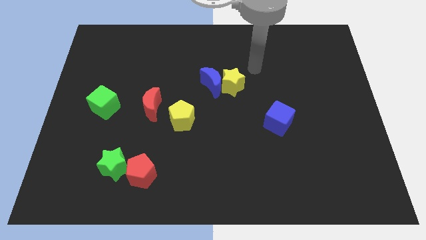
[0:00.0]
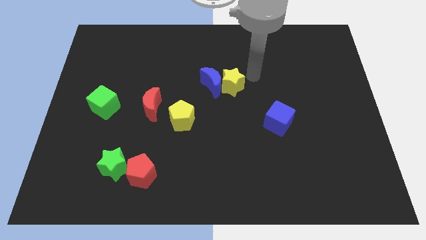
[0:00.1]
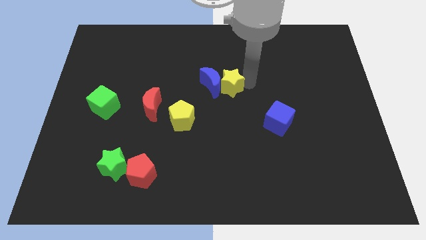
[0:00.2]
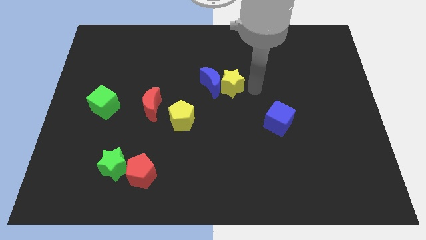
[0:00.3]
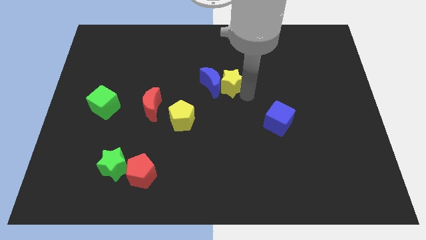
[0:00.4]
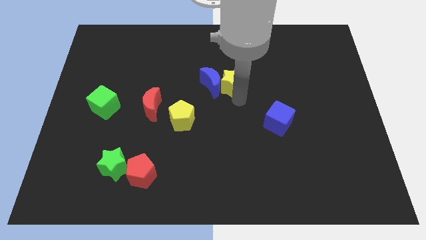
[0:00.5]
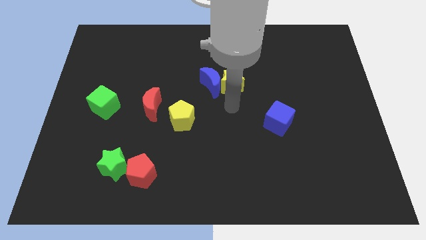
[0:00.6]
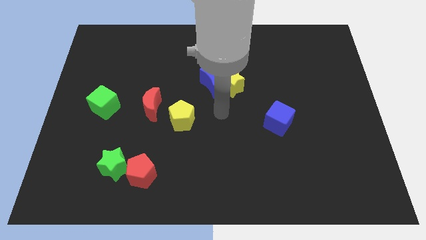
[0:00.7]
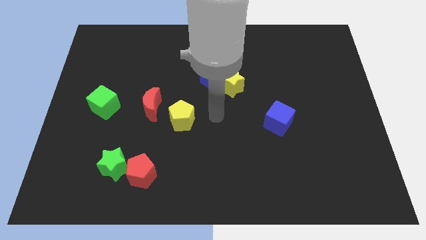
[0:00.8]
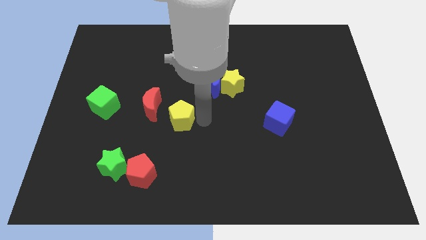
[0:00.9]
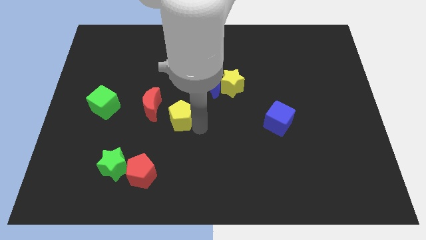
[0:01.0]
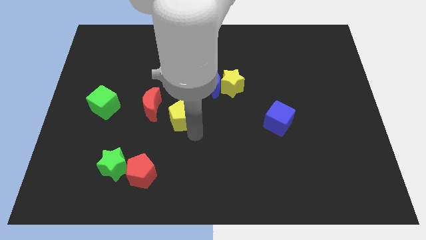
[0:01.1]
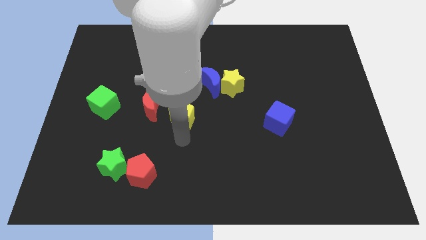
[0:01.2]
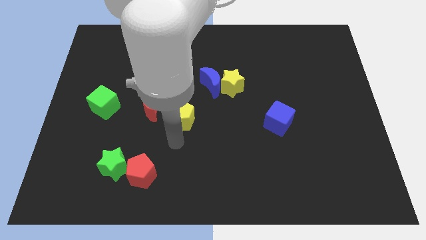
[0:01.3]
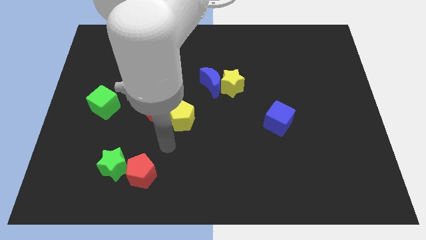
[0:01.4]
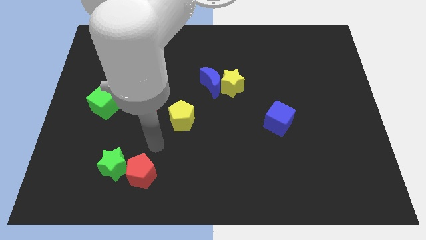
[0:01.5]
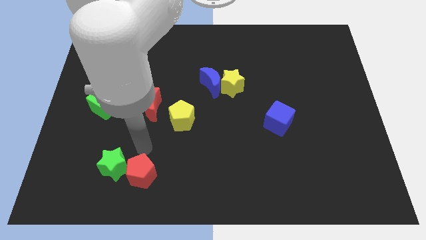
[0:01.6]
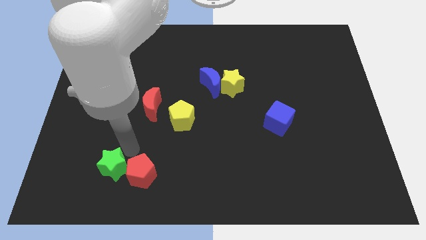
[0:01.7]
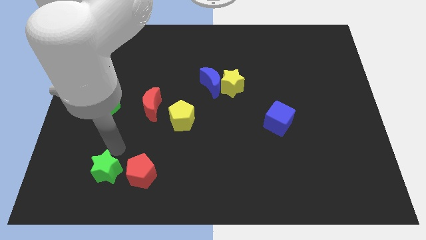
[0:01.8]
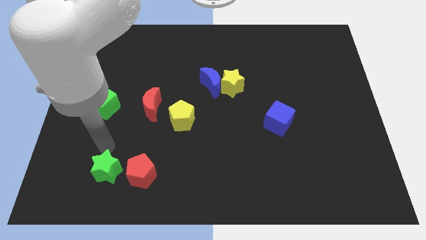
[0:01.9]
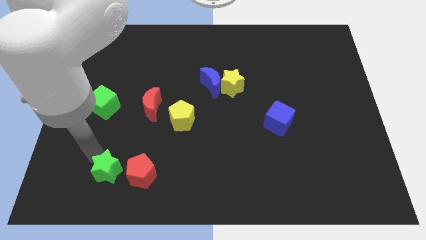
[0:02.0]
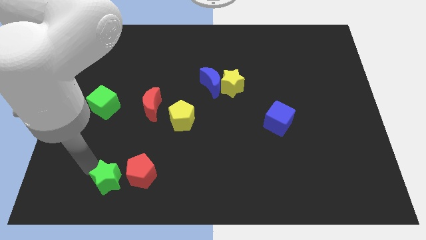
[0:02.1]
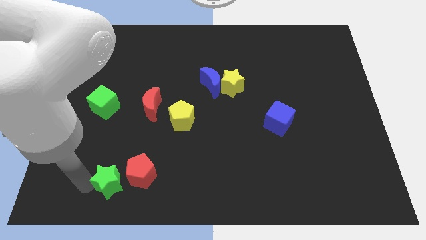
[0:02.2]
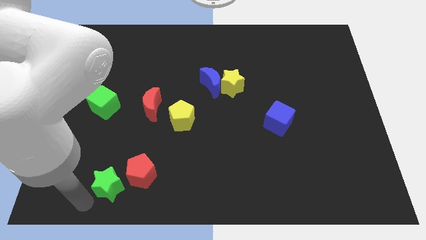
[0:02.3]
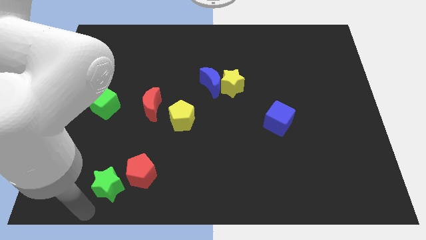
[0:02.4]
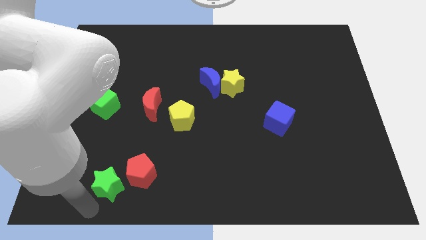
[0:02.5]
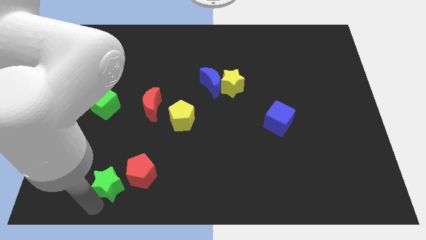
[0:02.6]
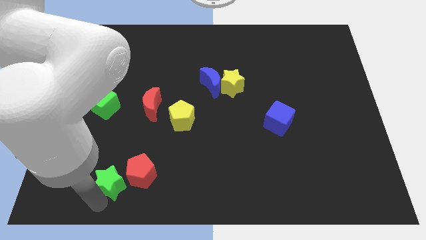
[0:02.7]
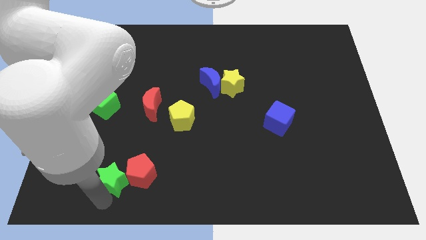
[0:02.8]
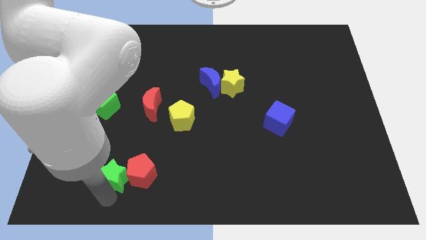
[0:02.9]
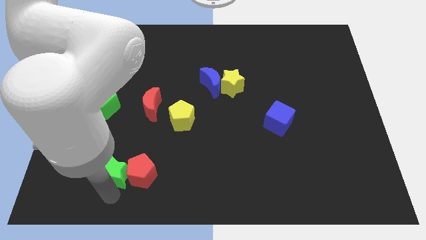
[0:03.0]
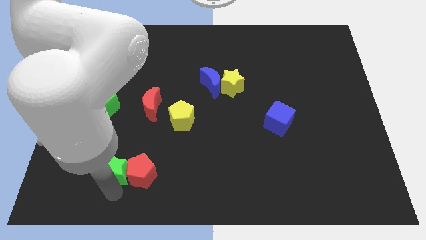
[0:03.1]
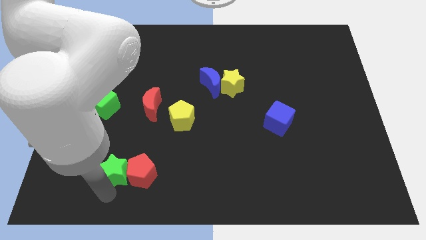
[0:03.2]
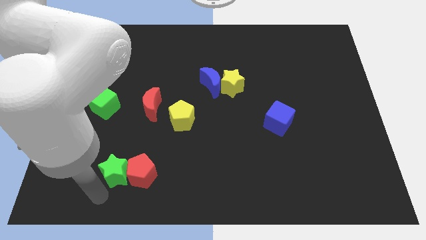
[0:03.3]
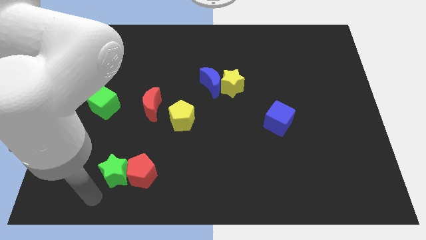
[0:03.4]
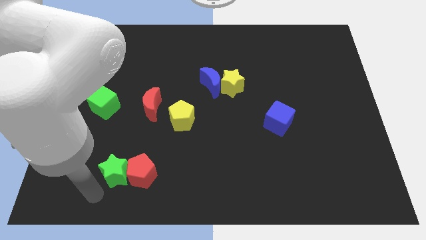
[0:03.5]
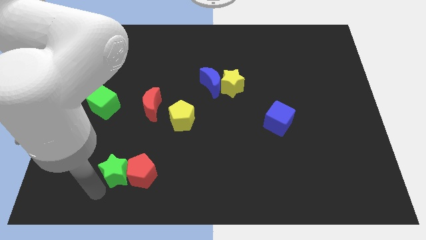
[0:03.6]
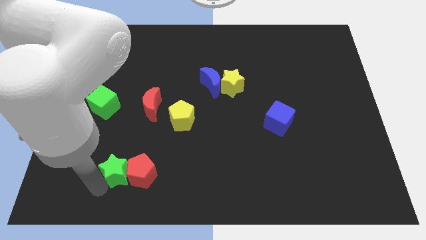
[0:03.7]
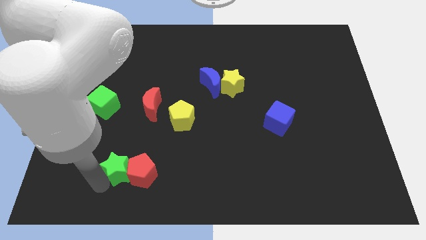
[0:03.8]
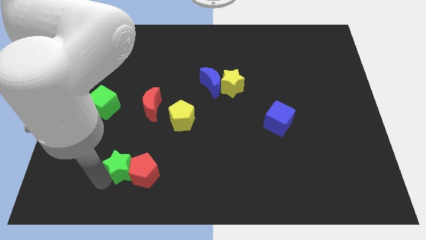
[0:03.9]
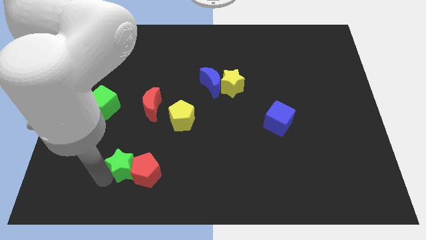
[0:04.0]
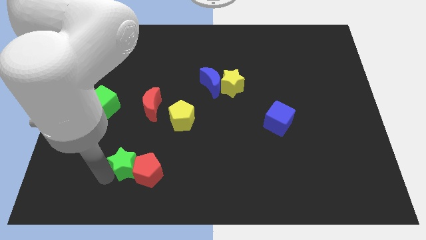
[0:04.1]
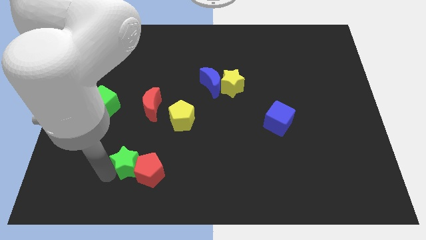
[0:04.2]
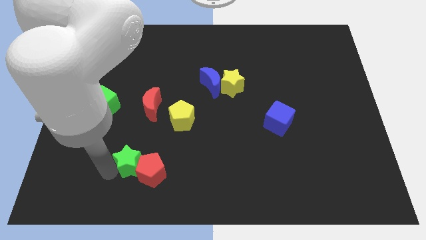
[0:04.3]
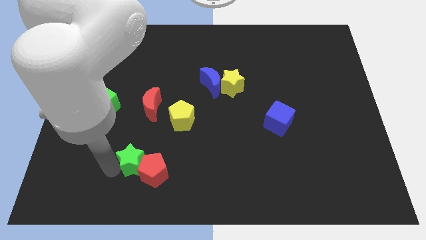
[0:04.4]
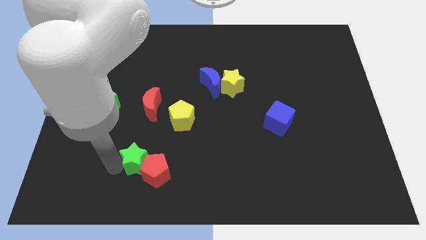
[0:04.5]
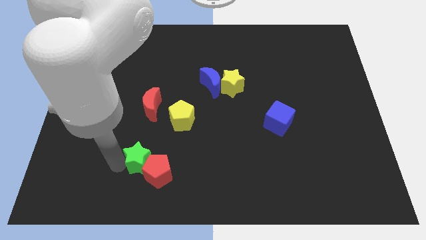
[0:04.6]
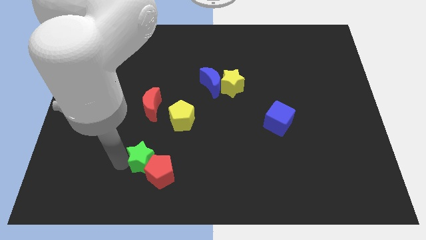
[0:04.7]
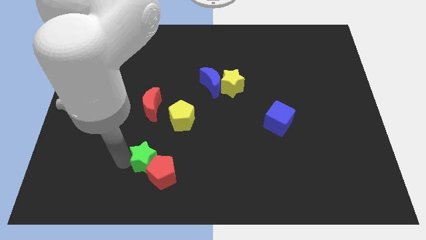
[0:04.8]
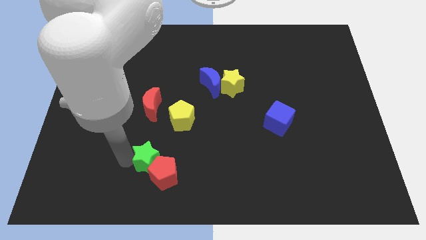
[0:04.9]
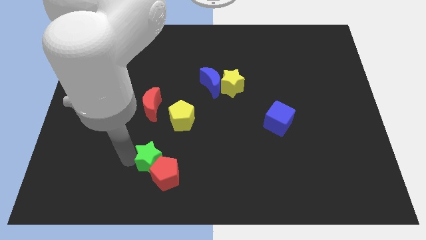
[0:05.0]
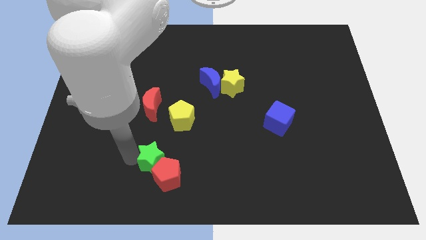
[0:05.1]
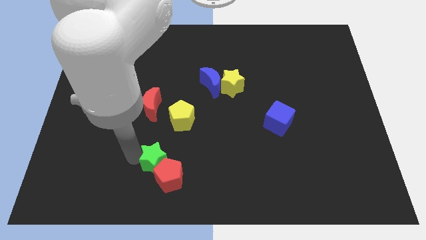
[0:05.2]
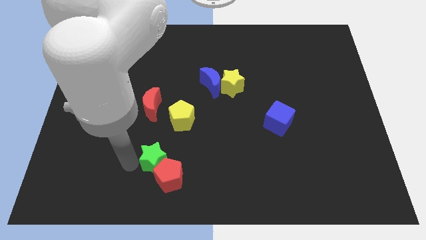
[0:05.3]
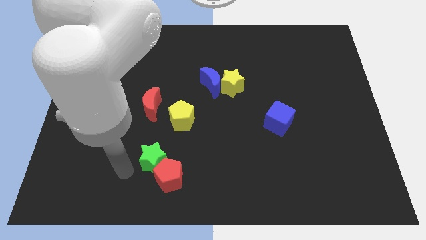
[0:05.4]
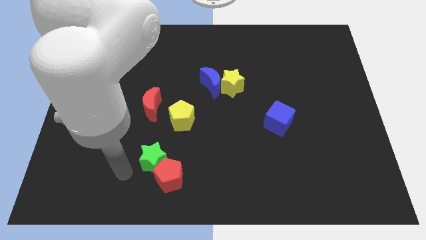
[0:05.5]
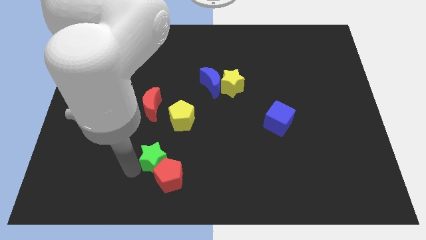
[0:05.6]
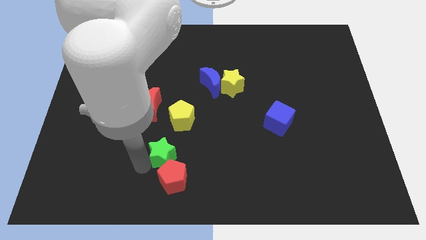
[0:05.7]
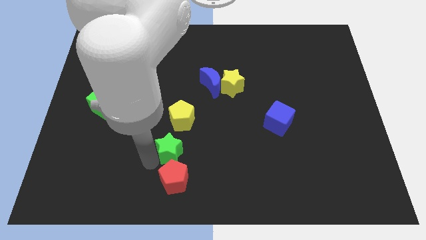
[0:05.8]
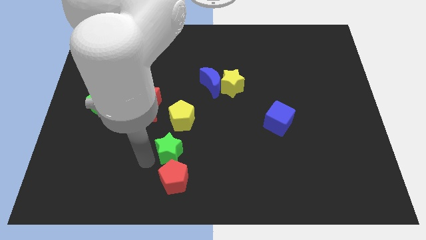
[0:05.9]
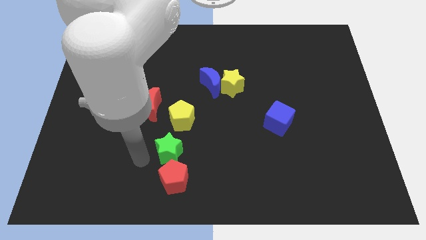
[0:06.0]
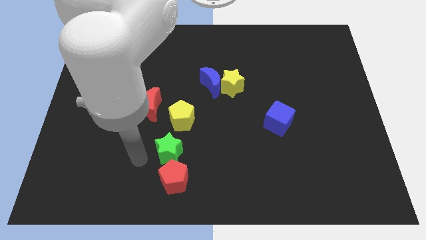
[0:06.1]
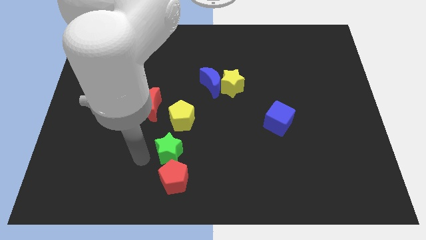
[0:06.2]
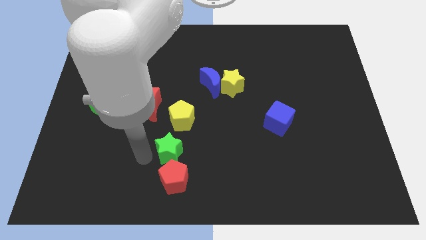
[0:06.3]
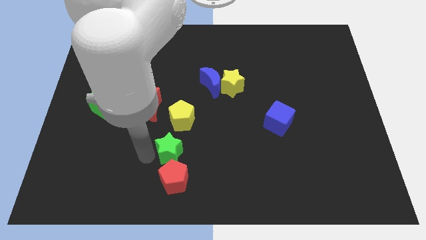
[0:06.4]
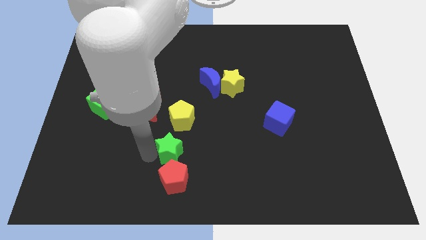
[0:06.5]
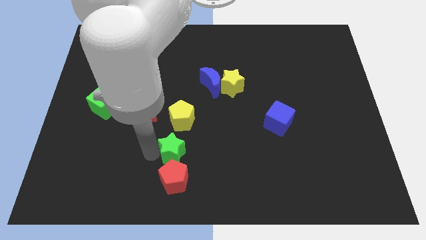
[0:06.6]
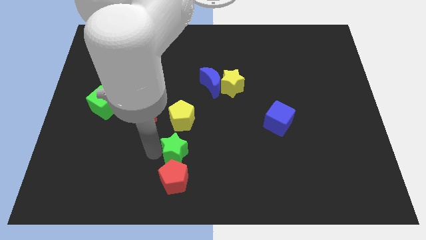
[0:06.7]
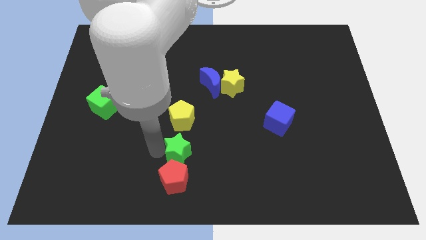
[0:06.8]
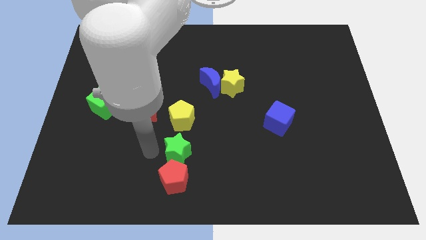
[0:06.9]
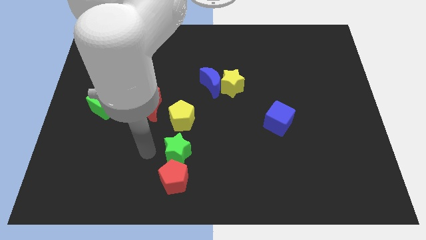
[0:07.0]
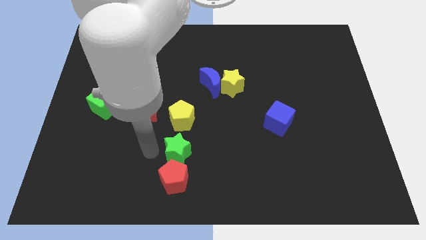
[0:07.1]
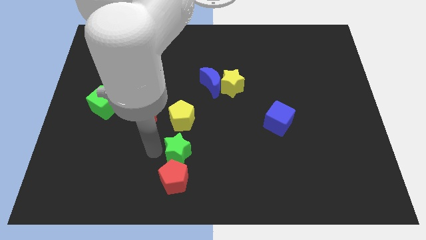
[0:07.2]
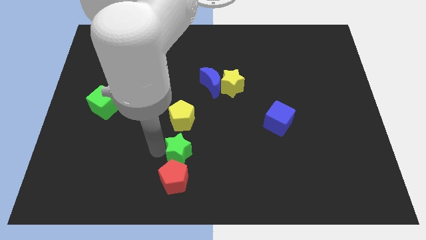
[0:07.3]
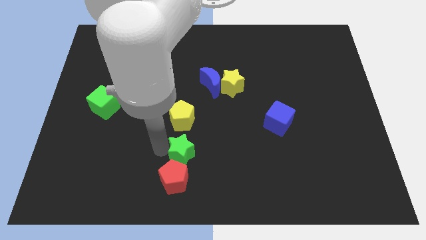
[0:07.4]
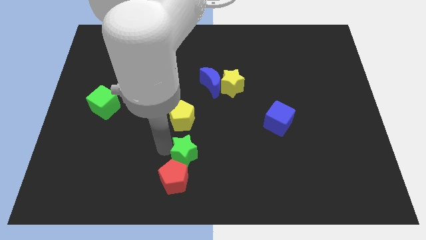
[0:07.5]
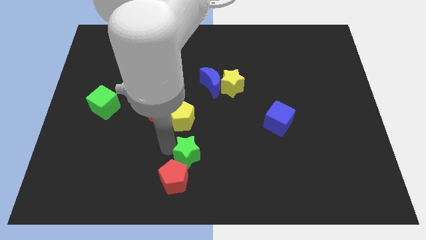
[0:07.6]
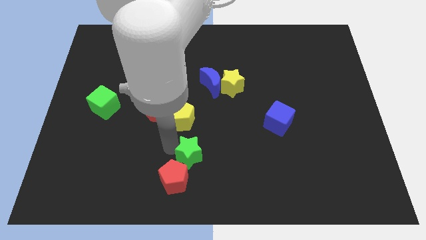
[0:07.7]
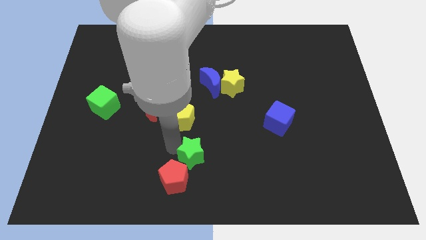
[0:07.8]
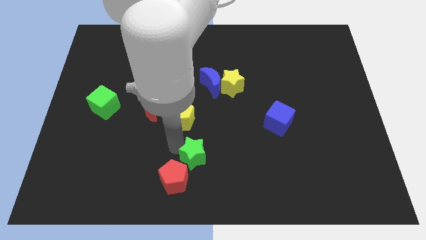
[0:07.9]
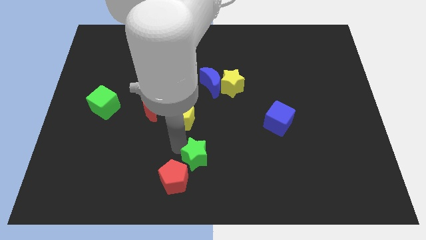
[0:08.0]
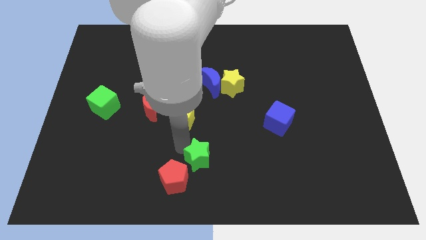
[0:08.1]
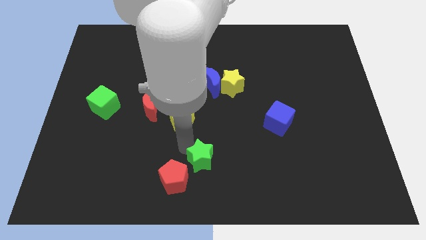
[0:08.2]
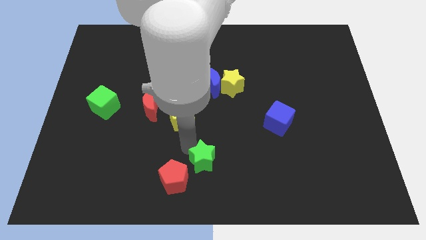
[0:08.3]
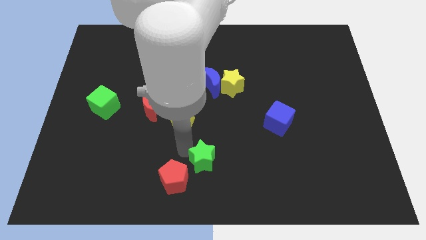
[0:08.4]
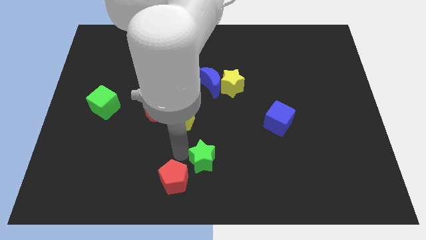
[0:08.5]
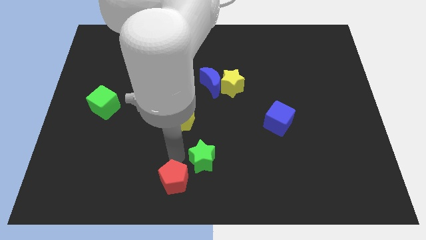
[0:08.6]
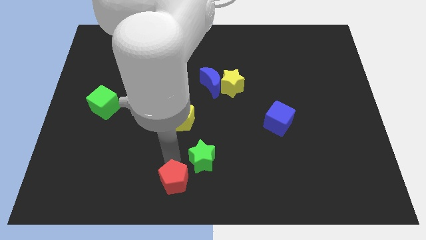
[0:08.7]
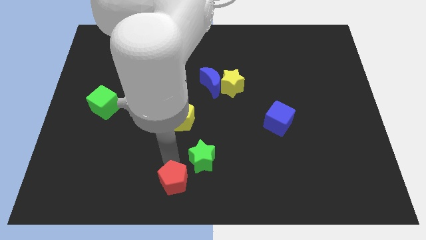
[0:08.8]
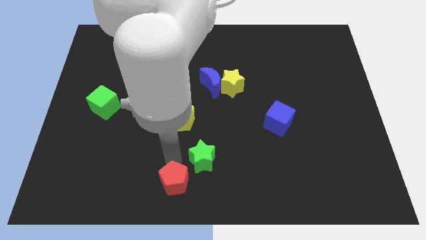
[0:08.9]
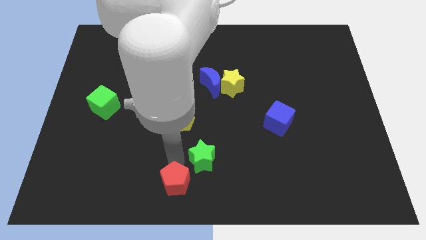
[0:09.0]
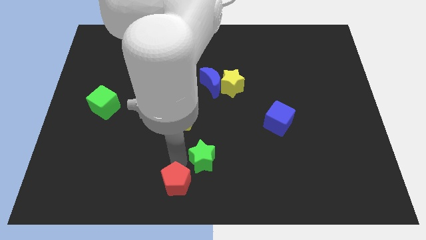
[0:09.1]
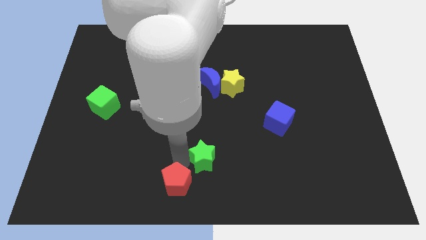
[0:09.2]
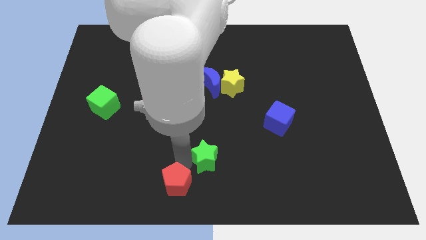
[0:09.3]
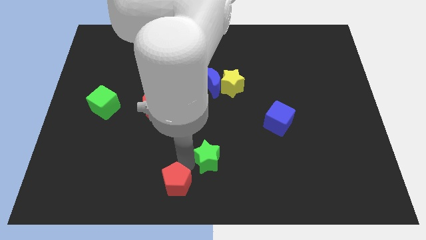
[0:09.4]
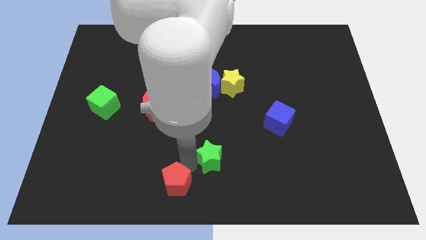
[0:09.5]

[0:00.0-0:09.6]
push the green star to the right
